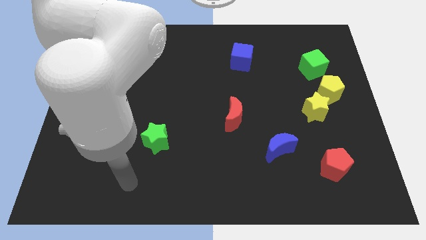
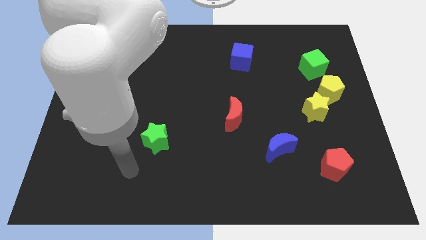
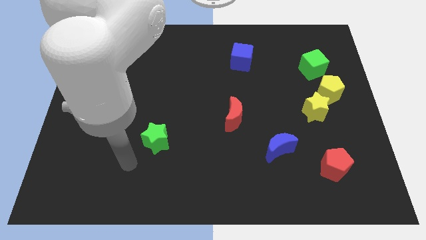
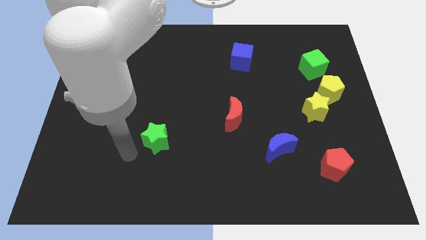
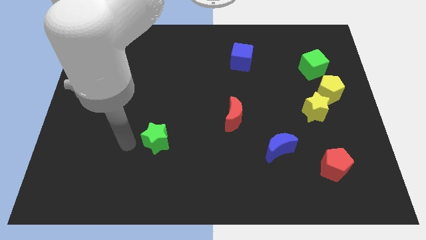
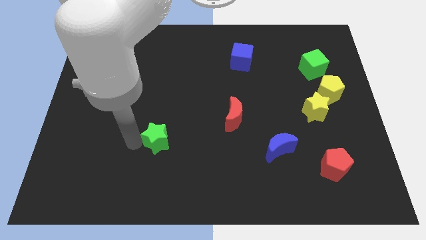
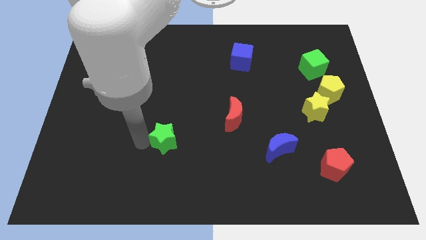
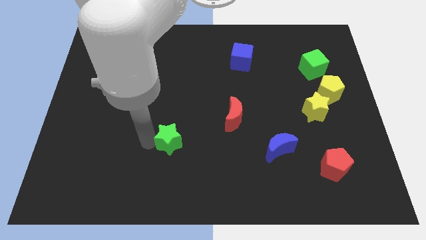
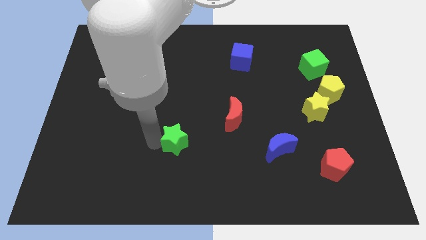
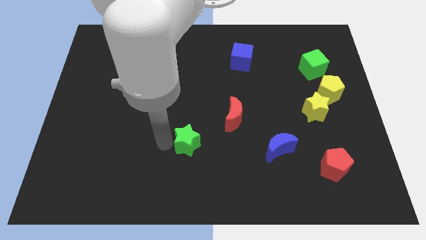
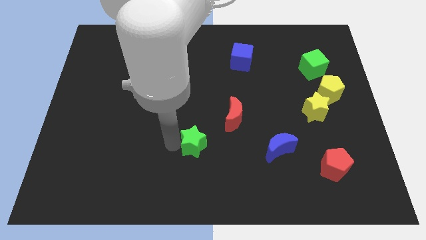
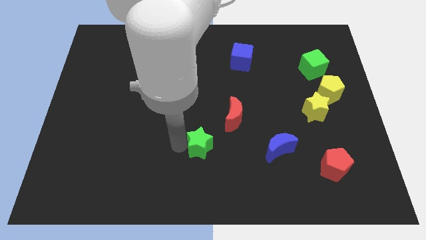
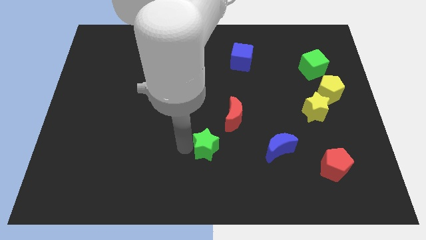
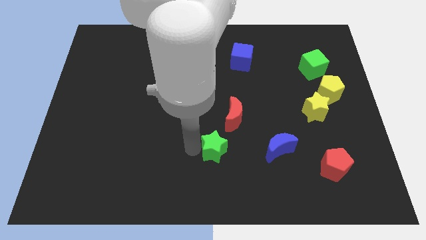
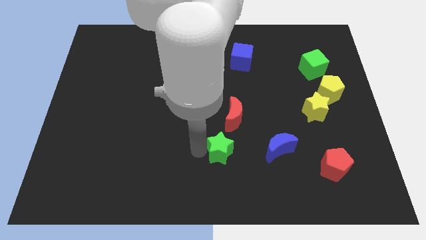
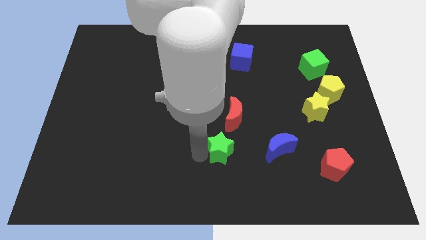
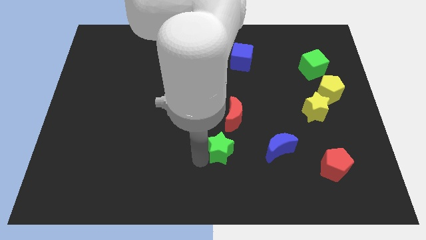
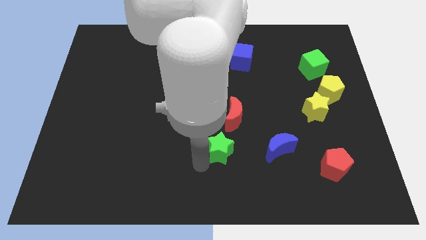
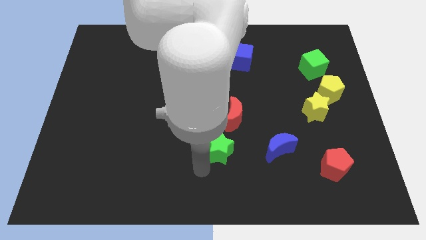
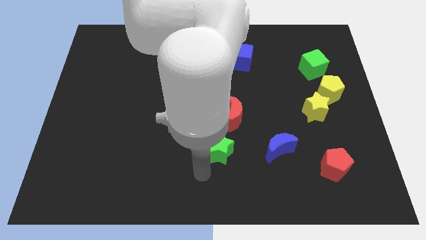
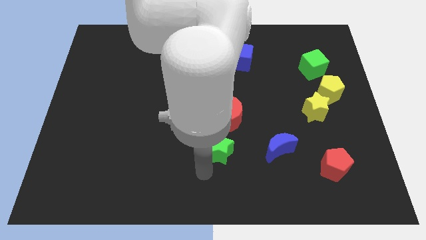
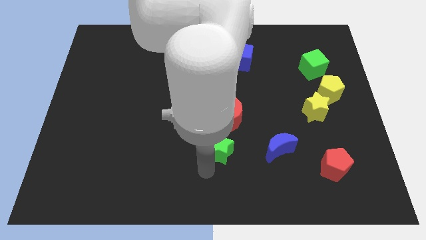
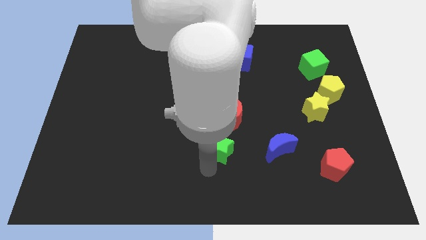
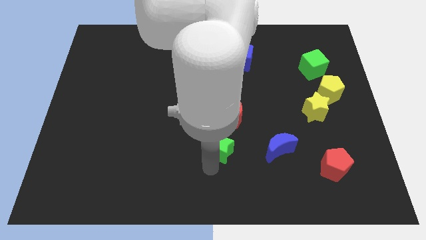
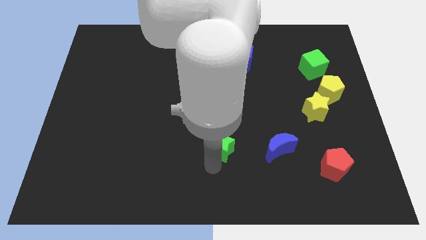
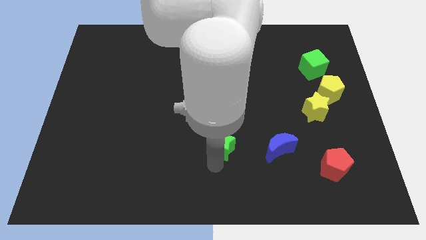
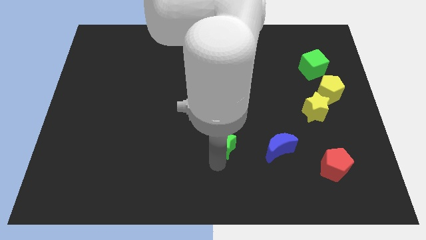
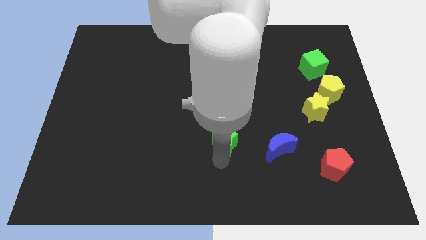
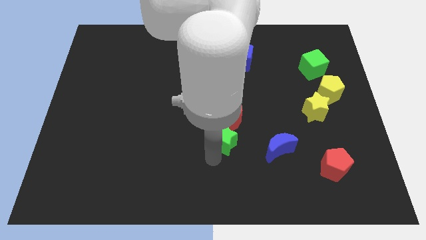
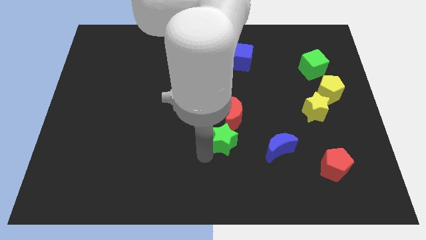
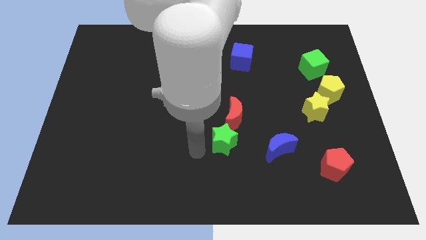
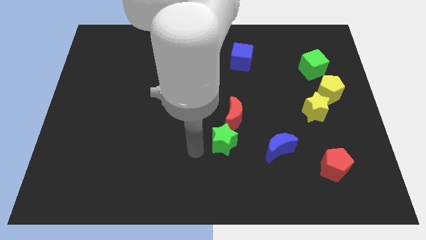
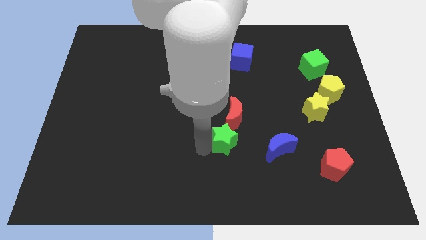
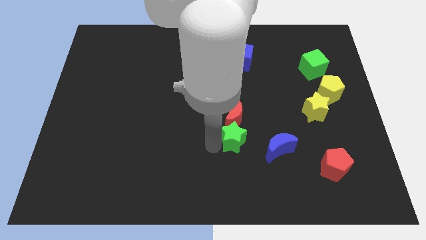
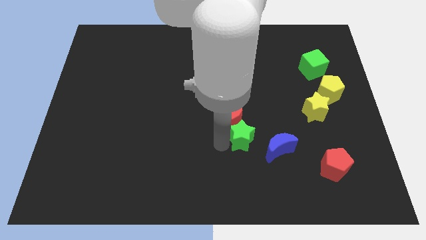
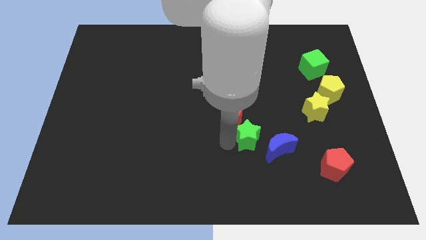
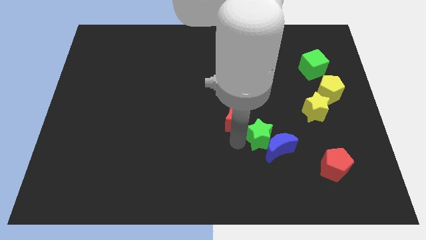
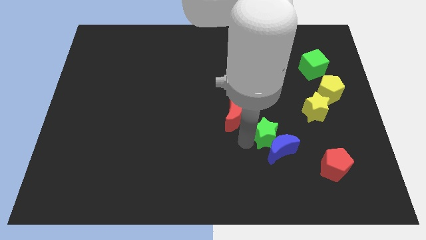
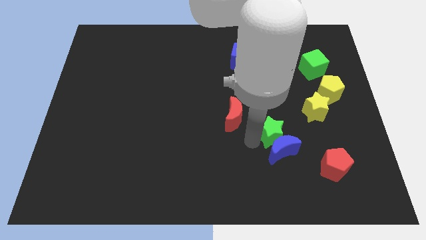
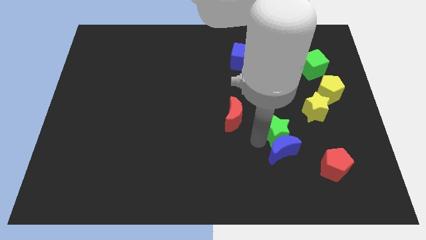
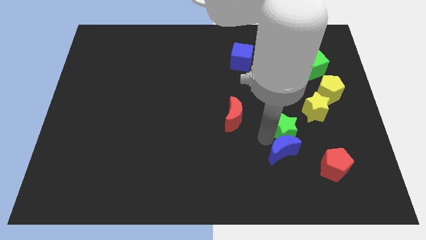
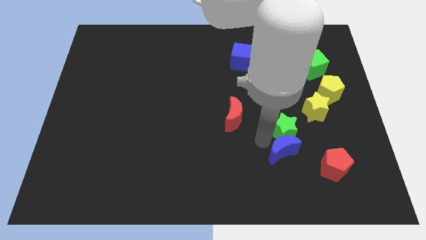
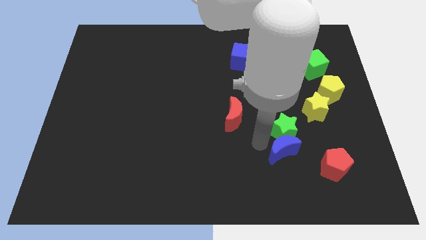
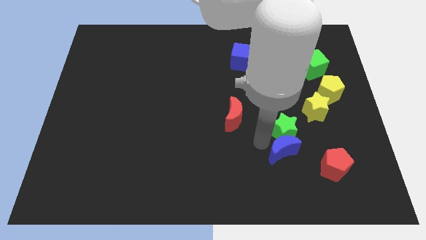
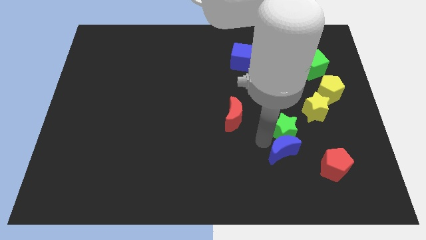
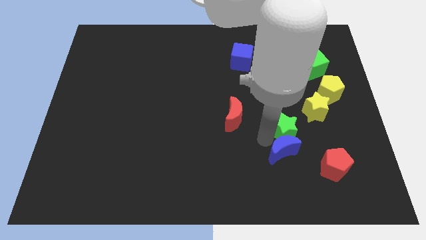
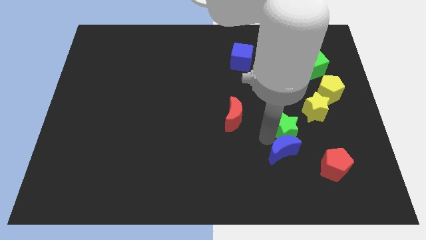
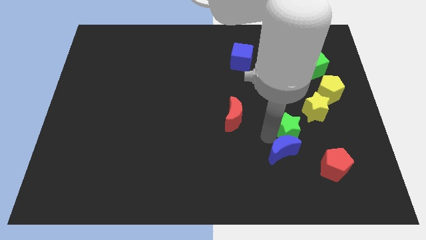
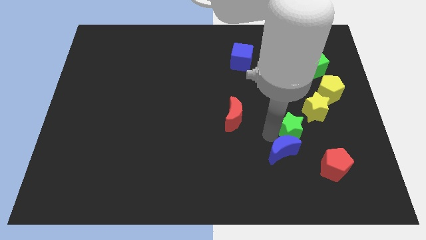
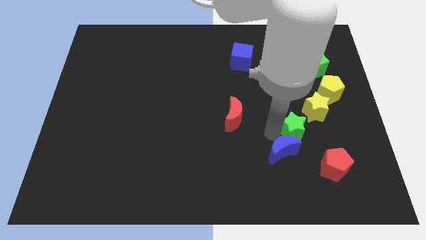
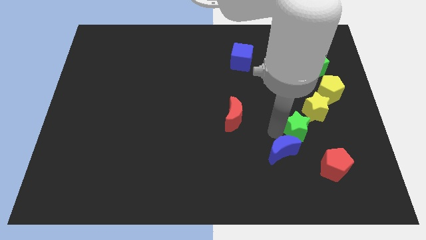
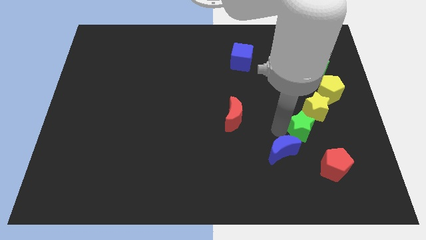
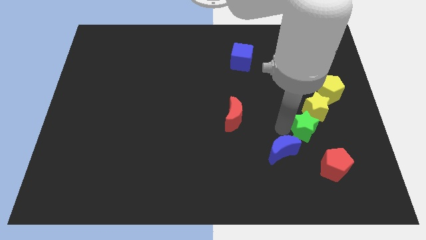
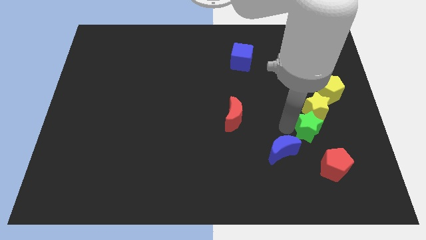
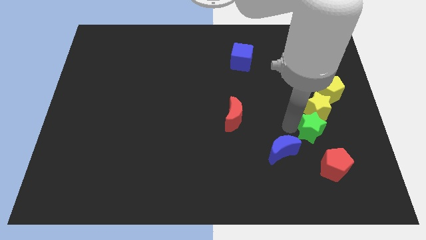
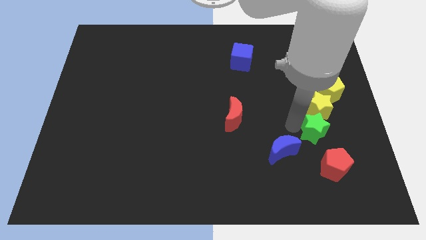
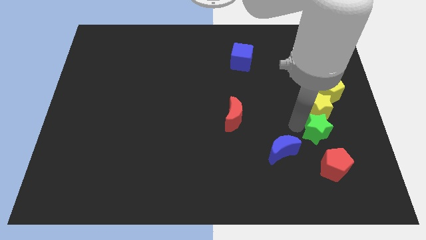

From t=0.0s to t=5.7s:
slide the green star to the bottom side of the yellow pentagon

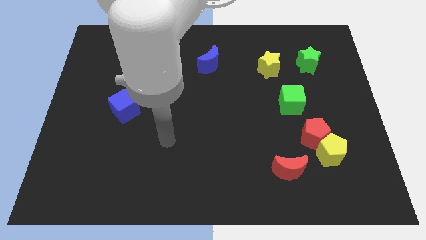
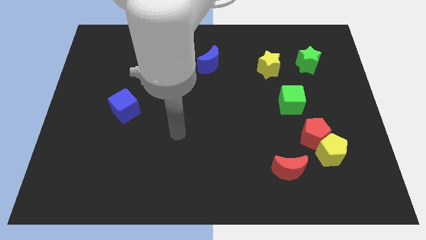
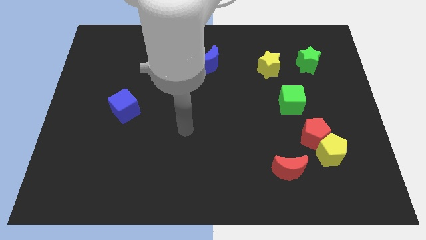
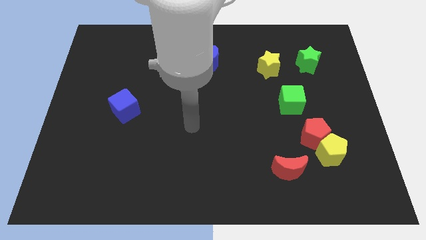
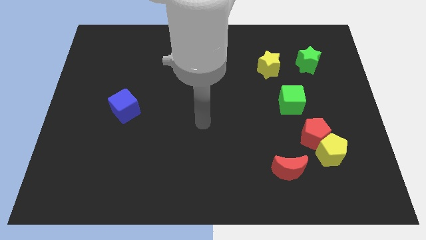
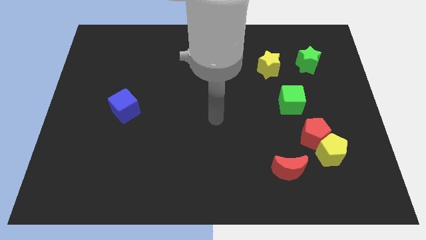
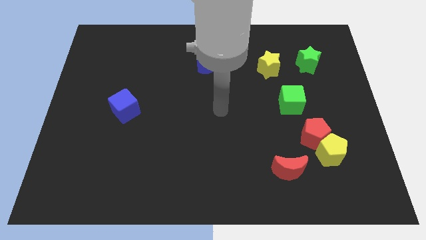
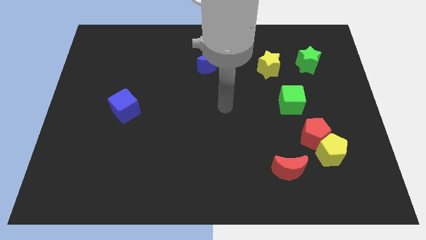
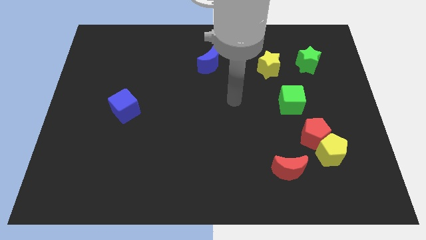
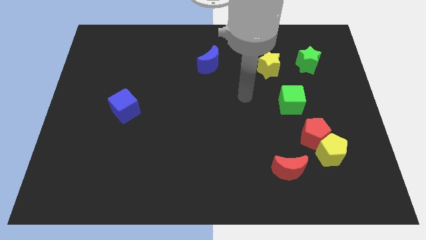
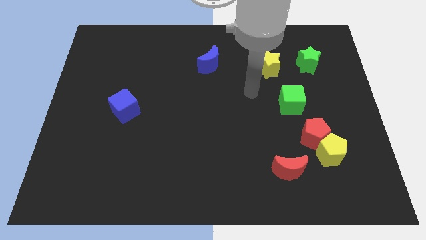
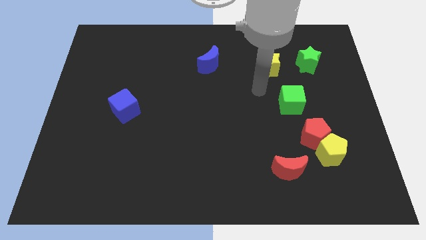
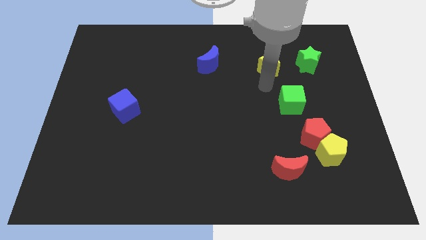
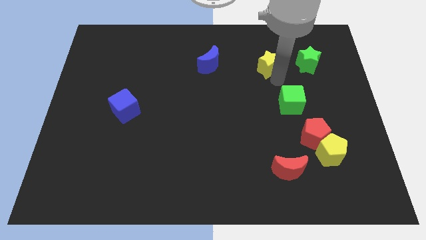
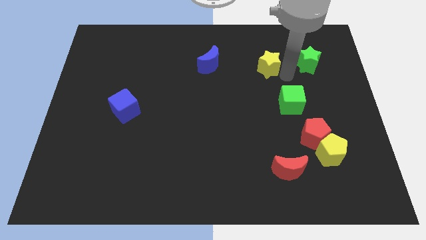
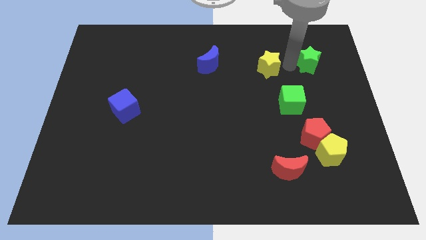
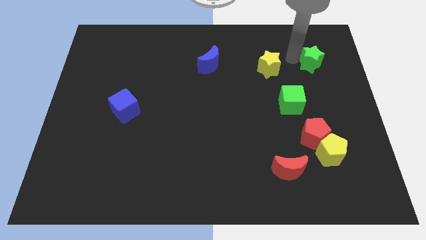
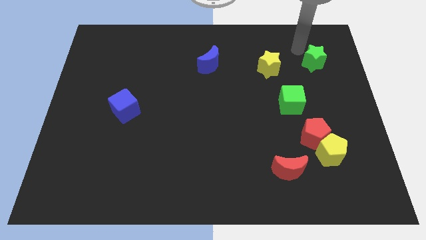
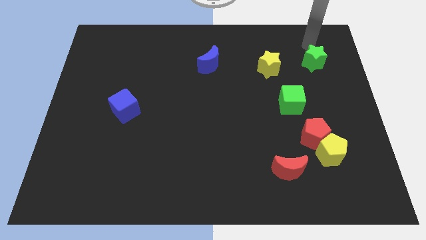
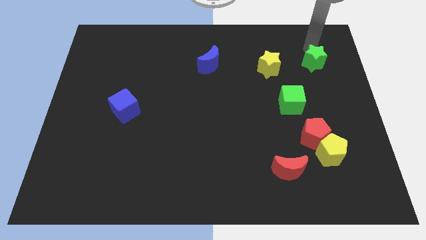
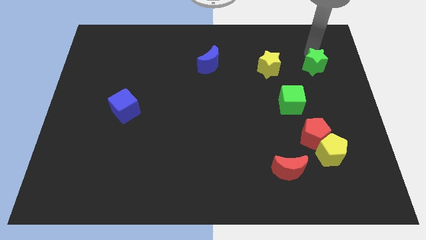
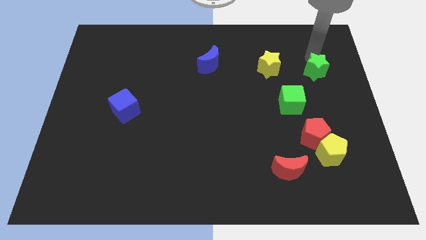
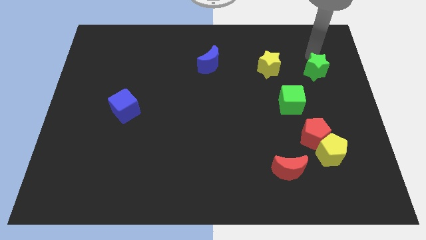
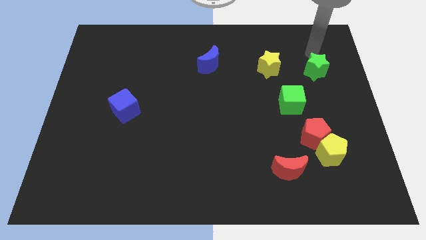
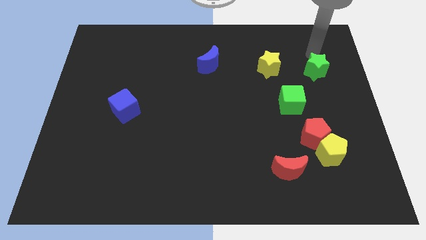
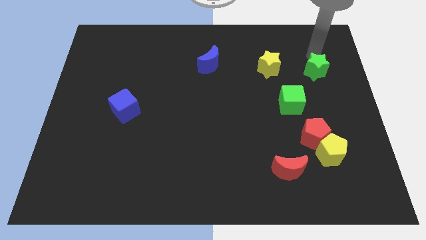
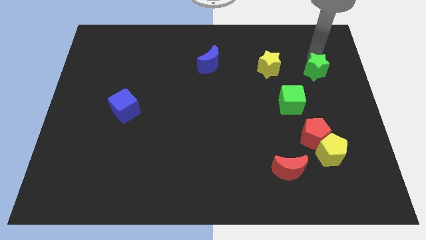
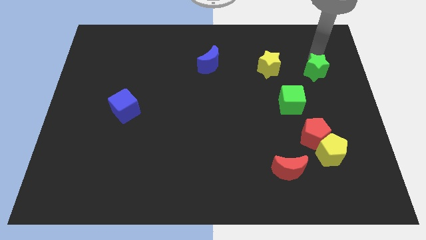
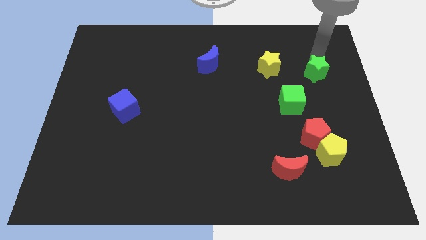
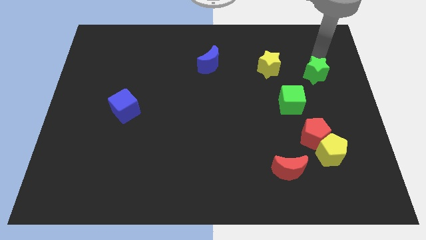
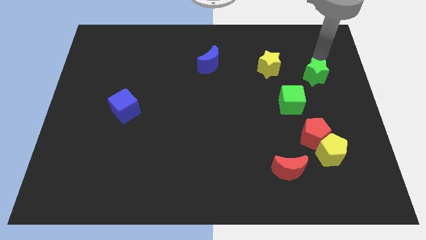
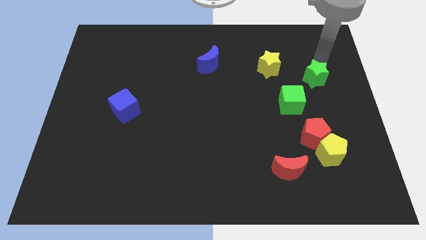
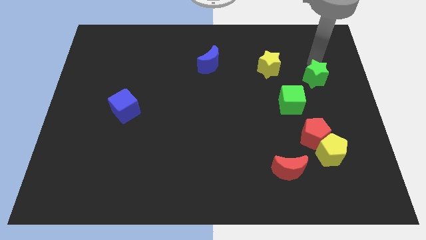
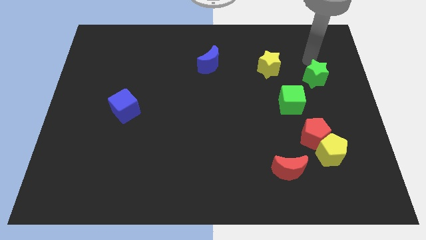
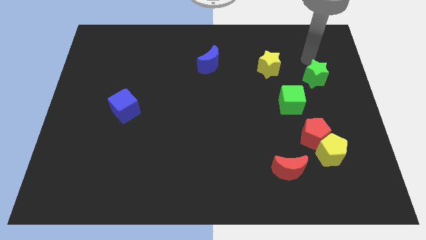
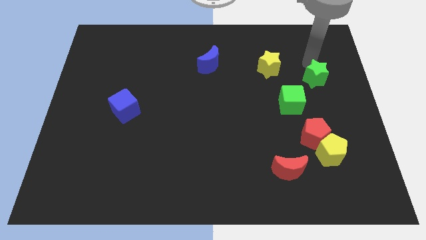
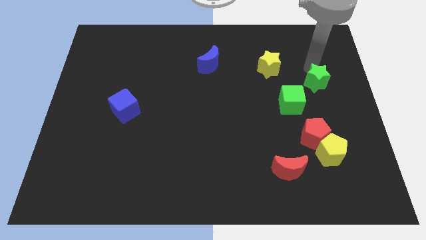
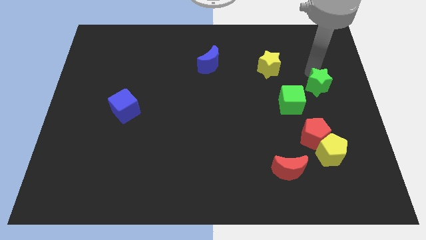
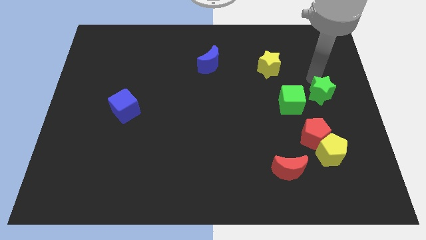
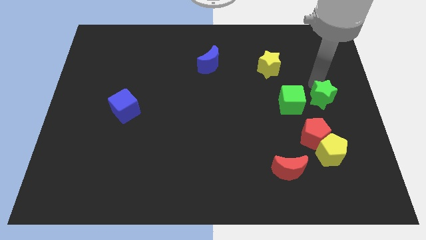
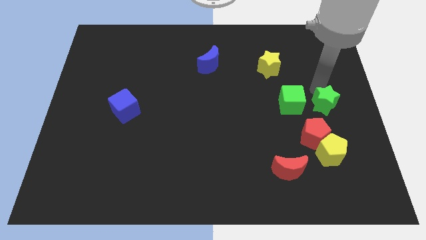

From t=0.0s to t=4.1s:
slide the green star diagonally up and to the right of the red pentagon
